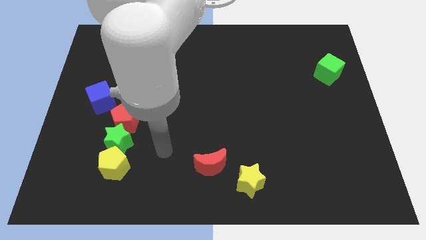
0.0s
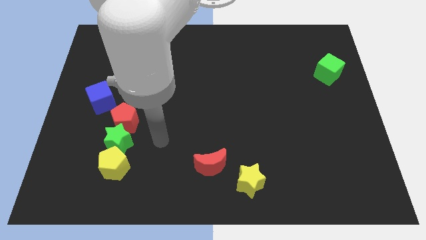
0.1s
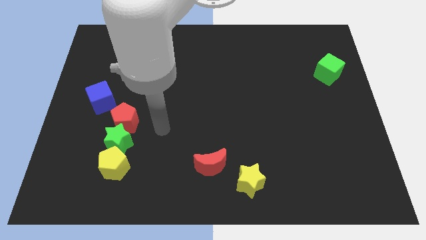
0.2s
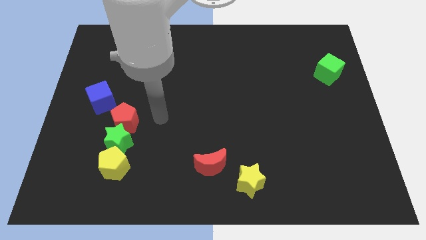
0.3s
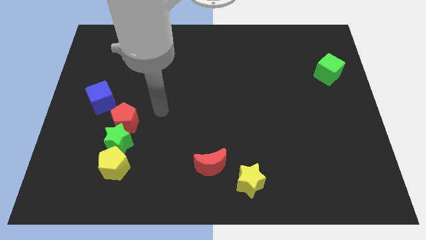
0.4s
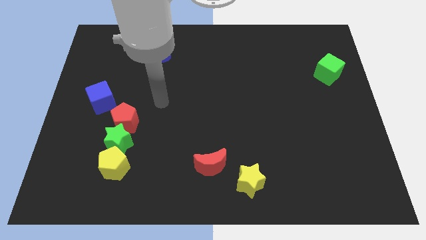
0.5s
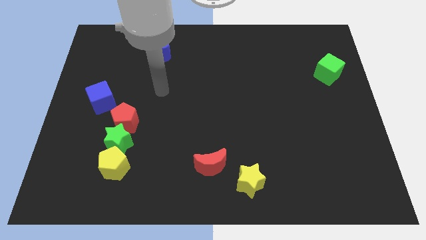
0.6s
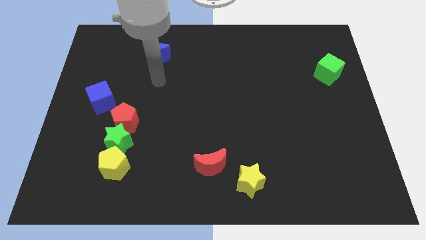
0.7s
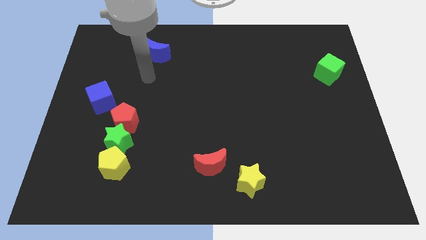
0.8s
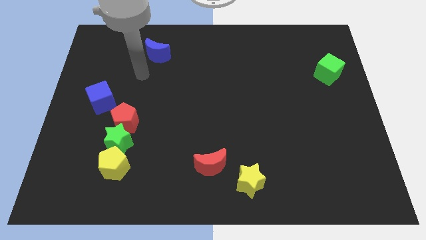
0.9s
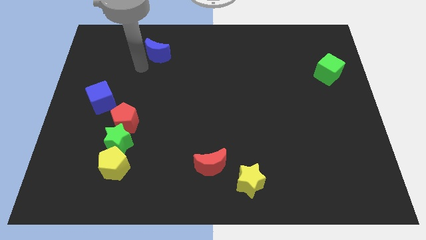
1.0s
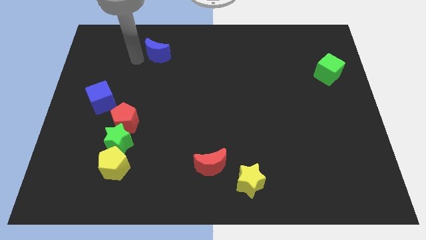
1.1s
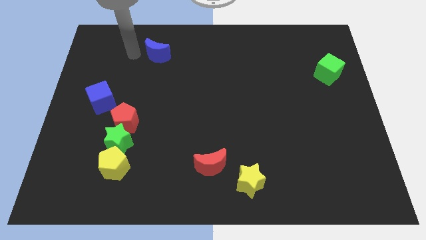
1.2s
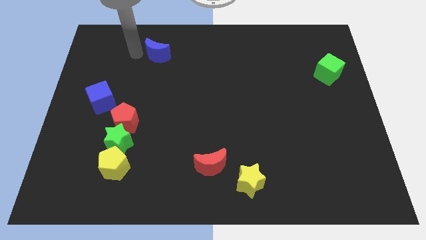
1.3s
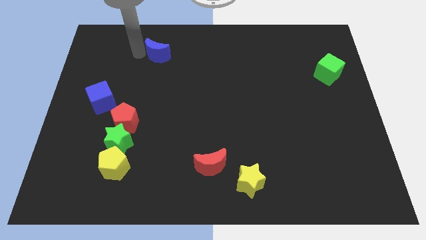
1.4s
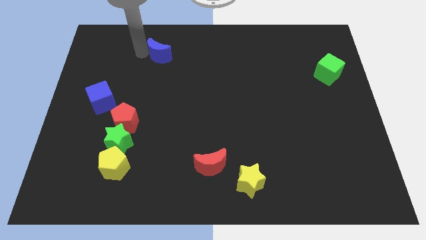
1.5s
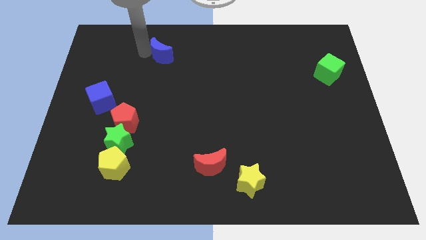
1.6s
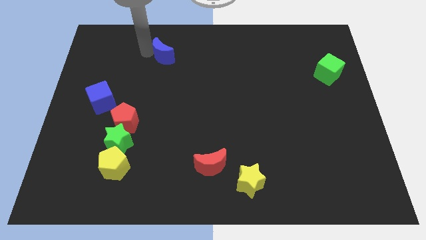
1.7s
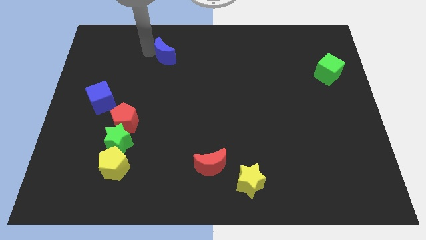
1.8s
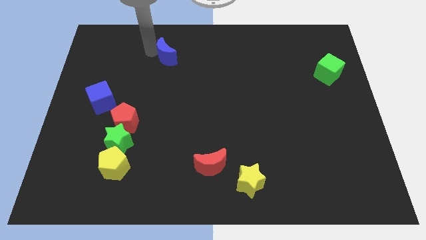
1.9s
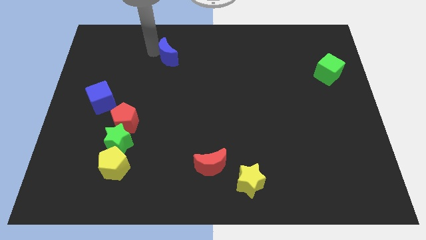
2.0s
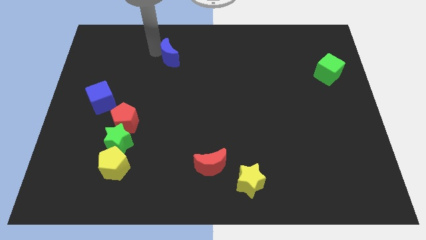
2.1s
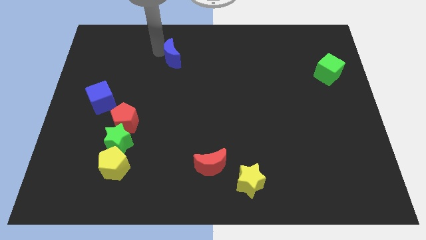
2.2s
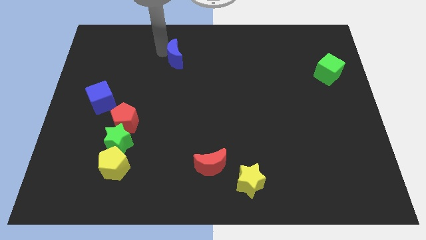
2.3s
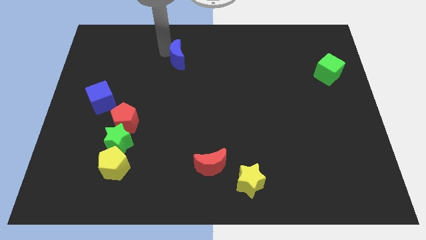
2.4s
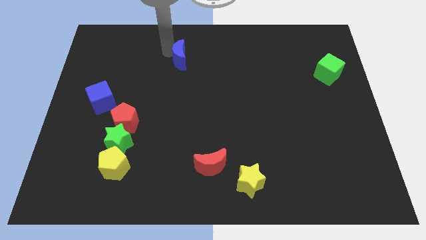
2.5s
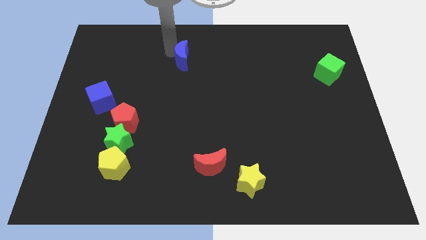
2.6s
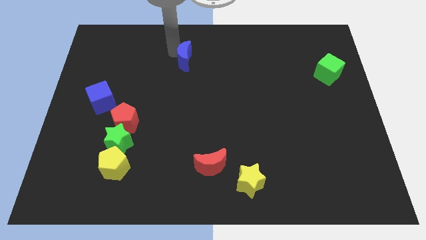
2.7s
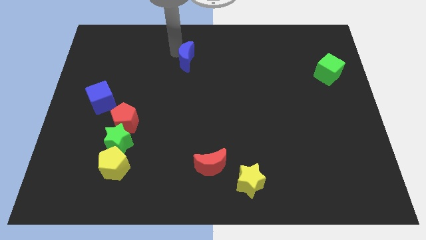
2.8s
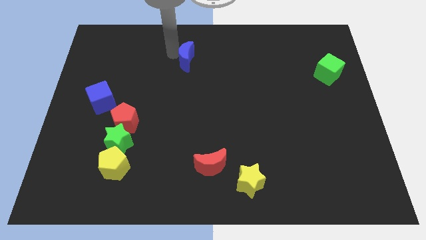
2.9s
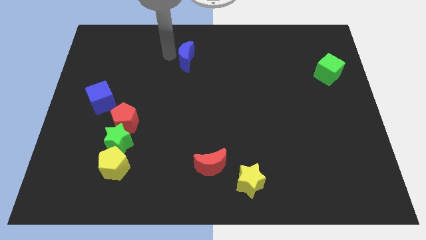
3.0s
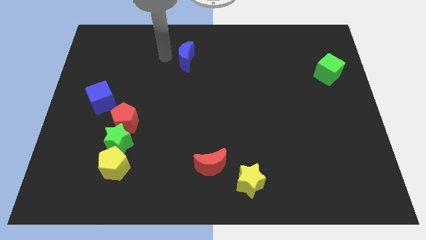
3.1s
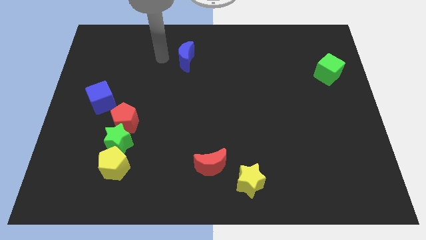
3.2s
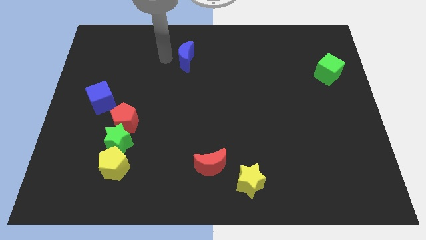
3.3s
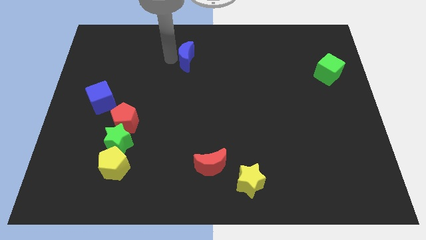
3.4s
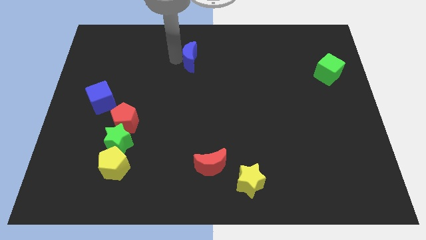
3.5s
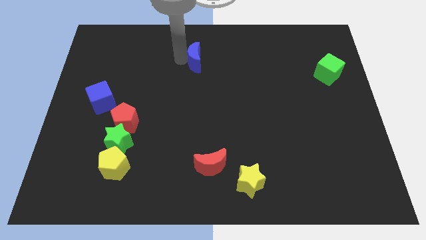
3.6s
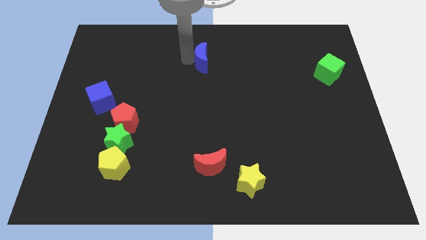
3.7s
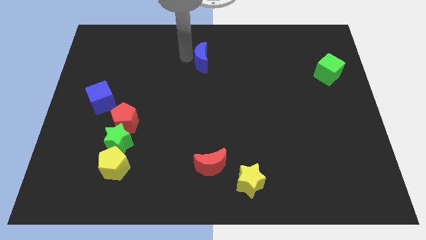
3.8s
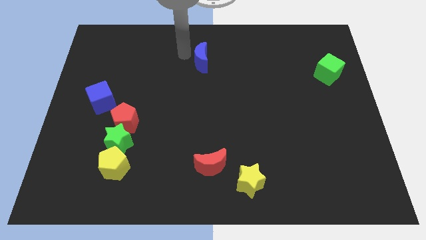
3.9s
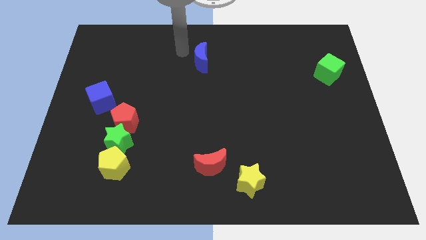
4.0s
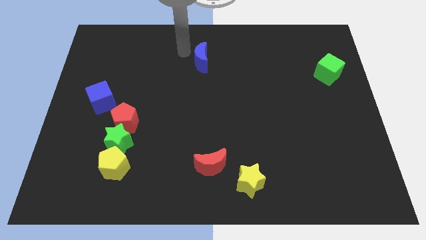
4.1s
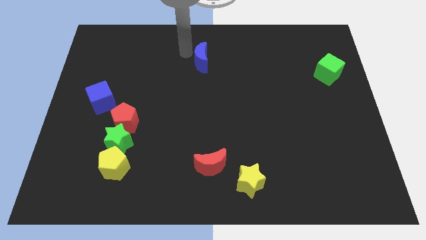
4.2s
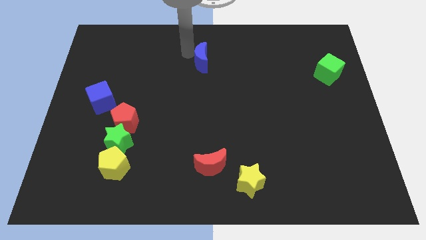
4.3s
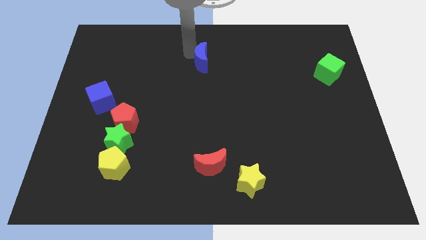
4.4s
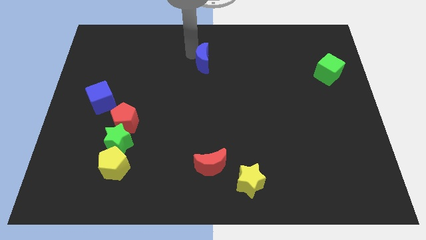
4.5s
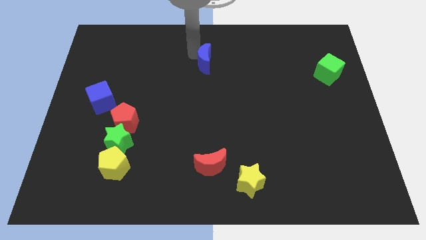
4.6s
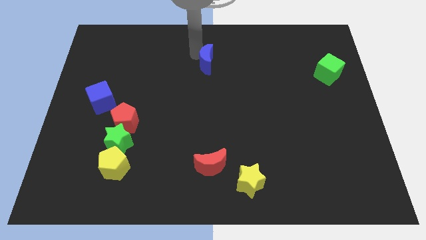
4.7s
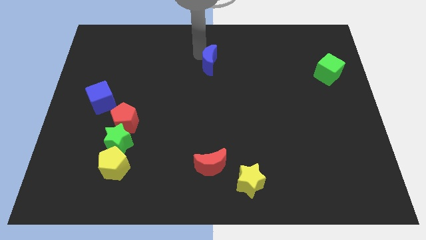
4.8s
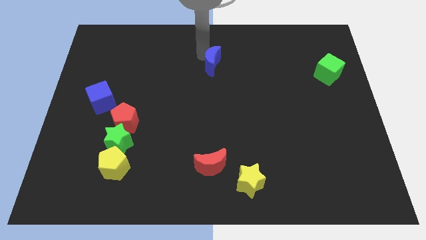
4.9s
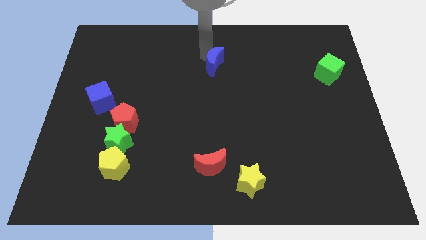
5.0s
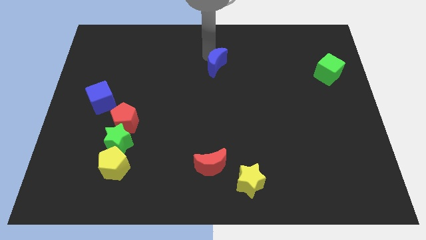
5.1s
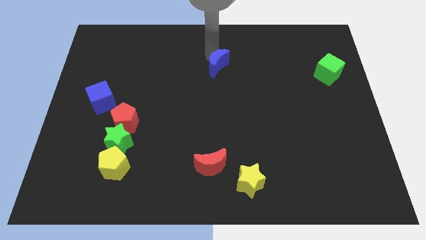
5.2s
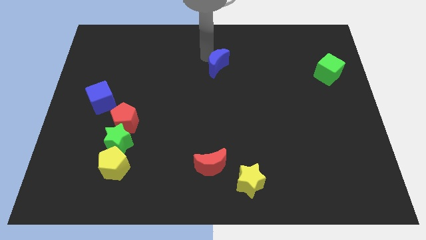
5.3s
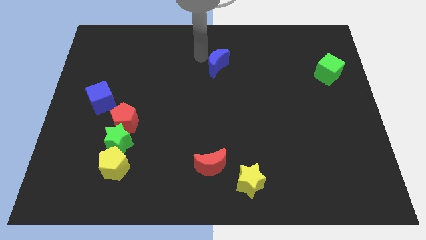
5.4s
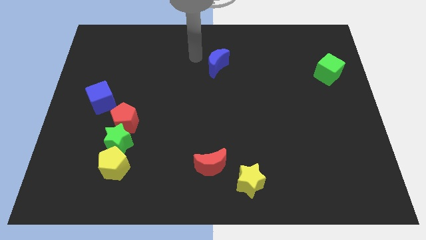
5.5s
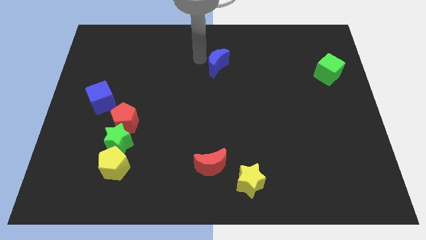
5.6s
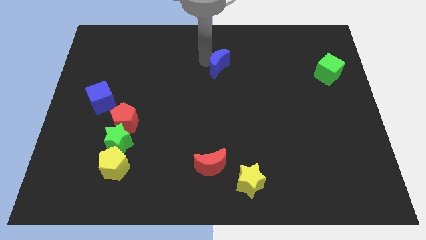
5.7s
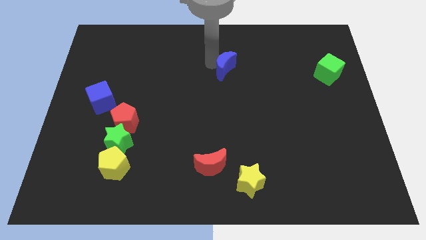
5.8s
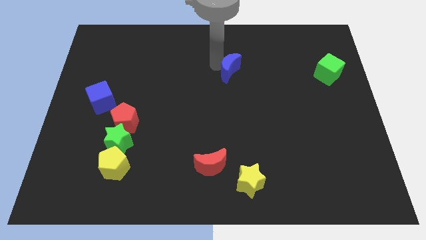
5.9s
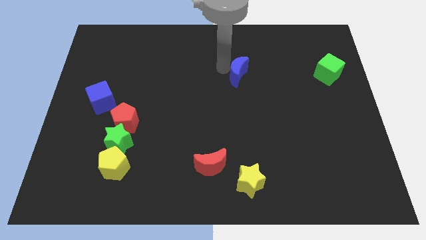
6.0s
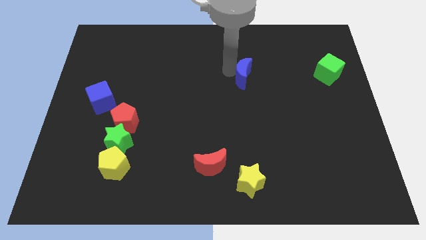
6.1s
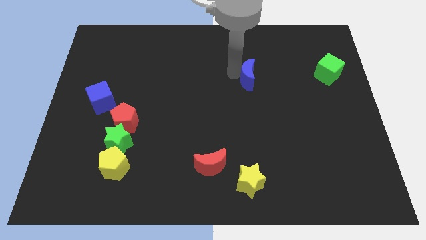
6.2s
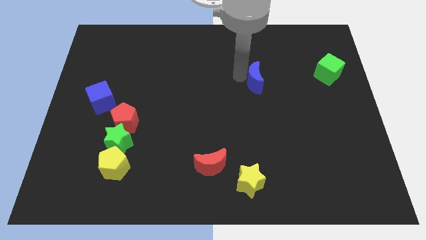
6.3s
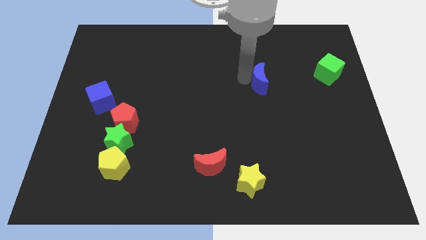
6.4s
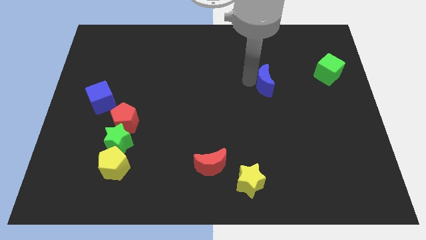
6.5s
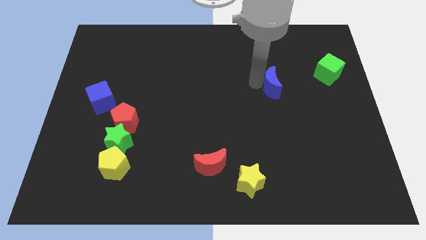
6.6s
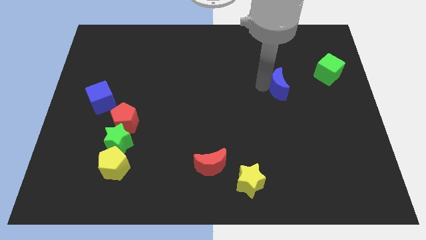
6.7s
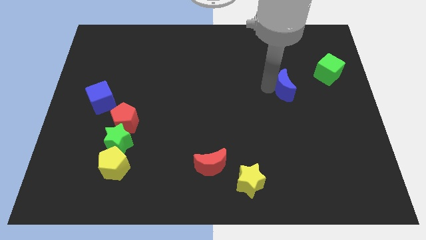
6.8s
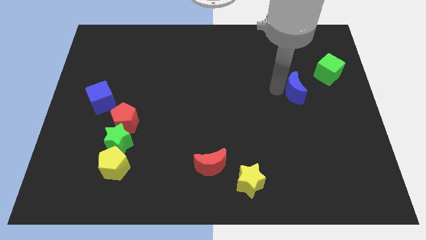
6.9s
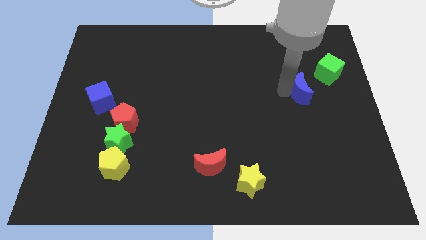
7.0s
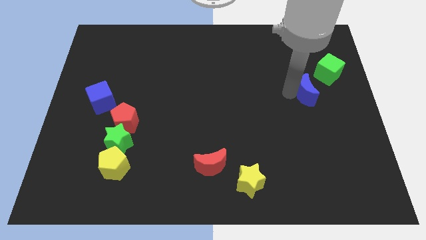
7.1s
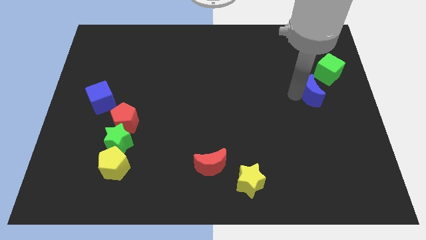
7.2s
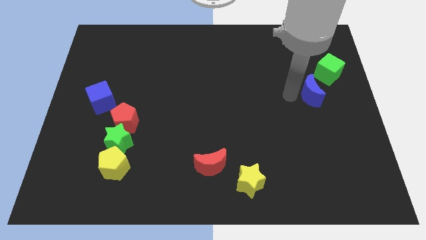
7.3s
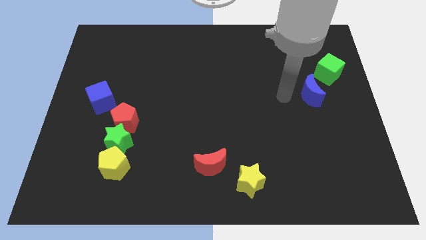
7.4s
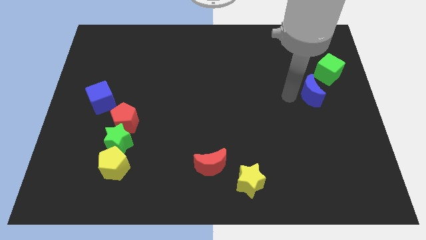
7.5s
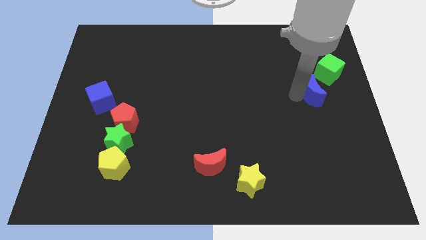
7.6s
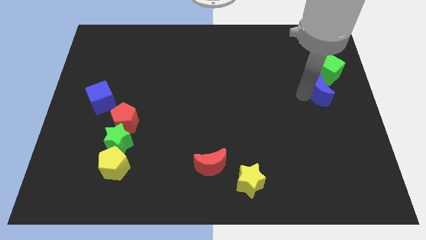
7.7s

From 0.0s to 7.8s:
put the blue moon to the right side of the board
